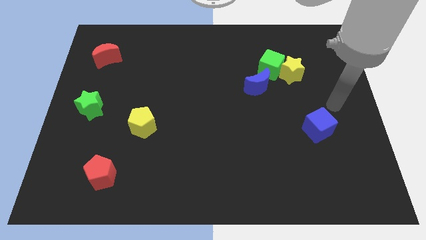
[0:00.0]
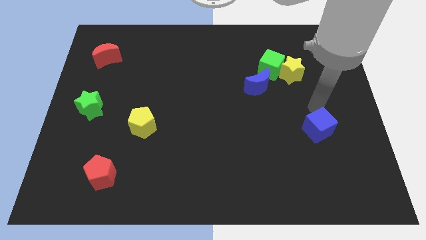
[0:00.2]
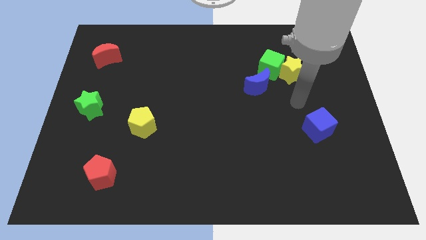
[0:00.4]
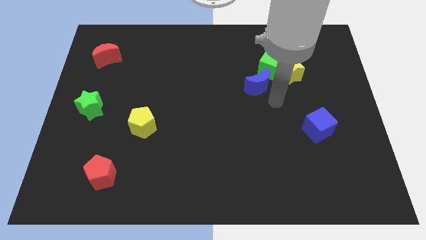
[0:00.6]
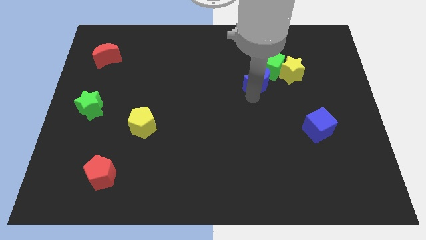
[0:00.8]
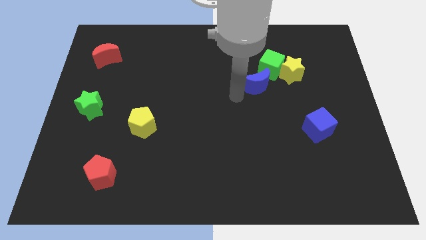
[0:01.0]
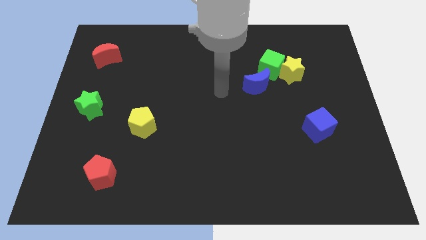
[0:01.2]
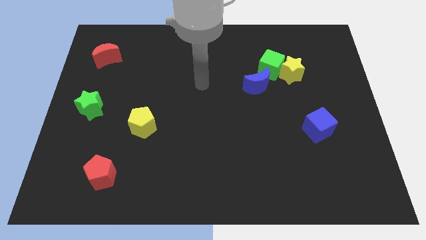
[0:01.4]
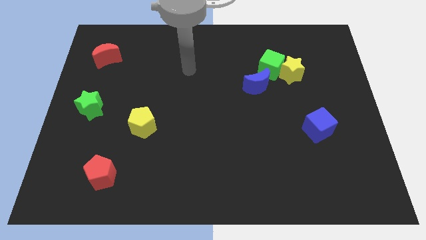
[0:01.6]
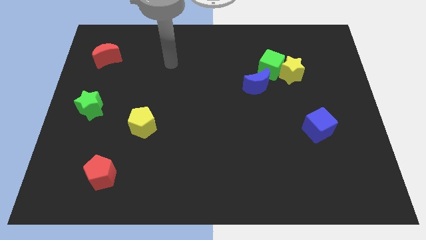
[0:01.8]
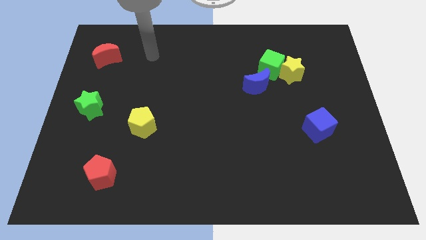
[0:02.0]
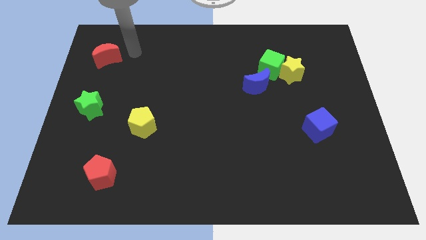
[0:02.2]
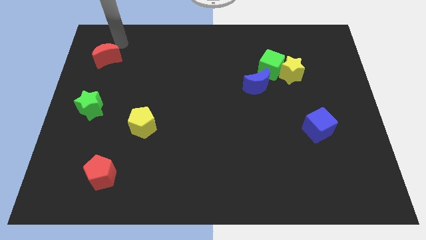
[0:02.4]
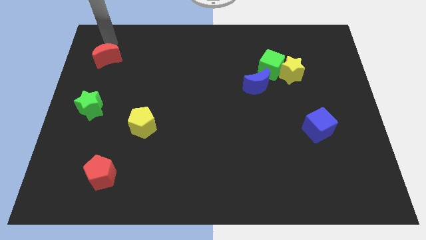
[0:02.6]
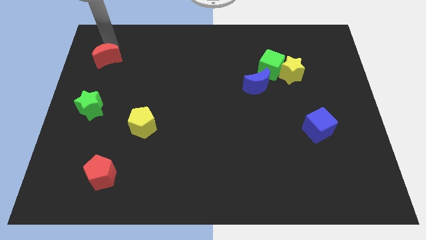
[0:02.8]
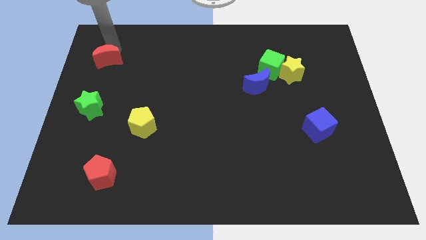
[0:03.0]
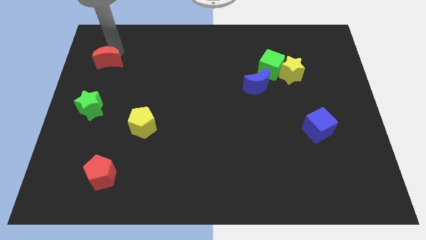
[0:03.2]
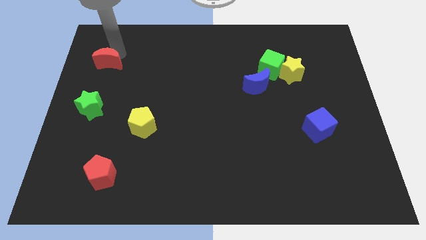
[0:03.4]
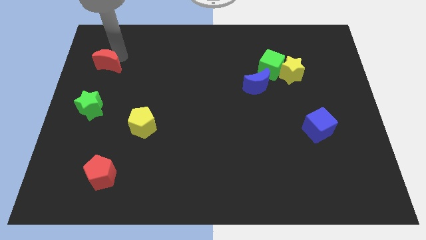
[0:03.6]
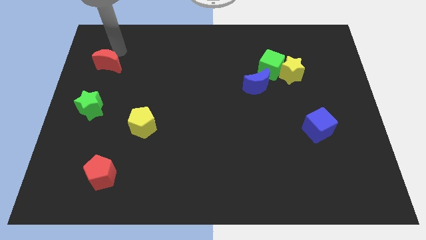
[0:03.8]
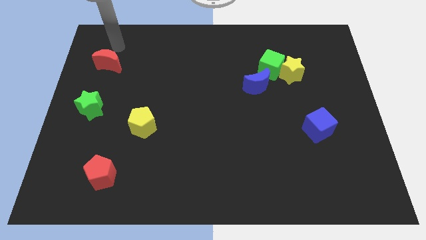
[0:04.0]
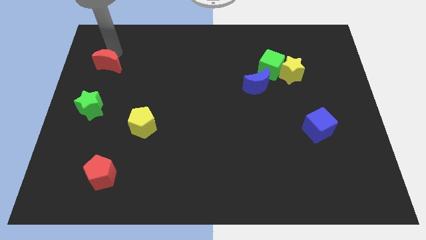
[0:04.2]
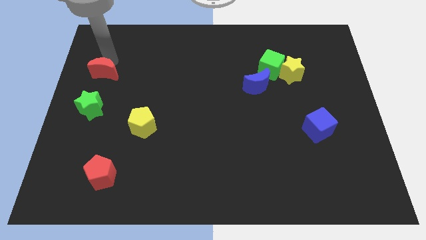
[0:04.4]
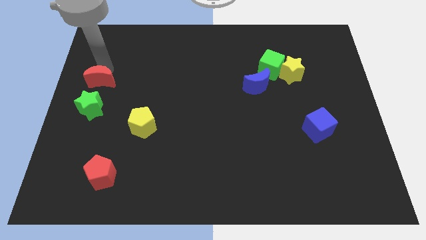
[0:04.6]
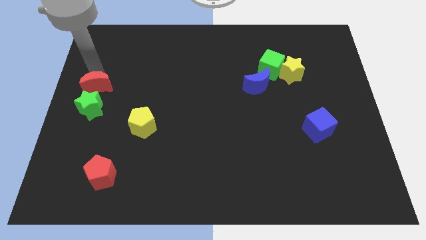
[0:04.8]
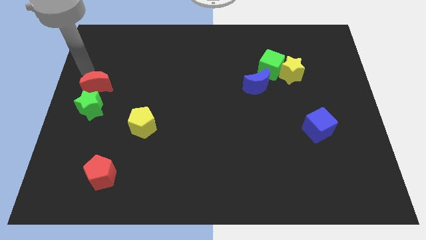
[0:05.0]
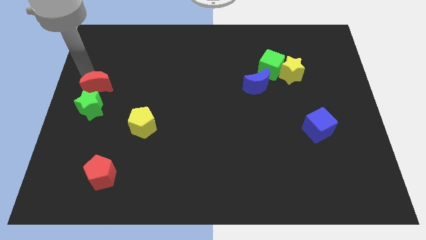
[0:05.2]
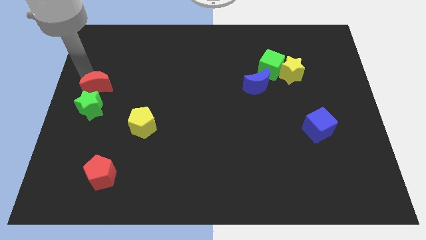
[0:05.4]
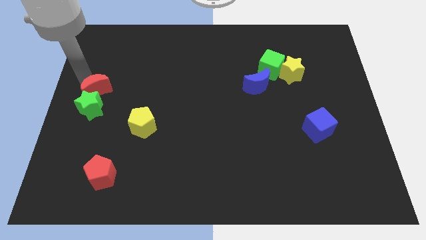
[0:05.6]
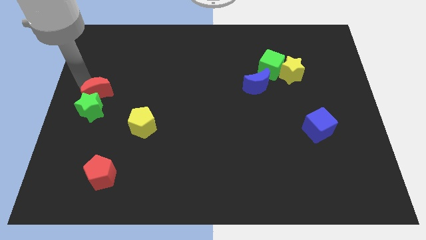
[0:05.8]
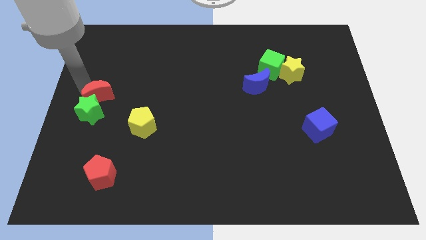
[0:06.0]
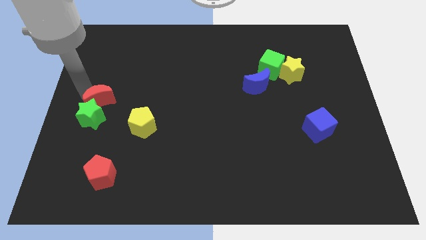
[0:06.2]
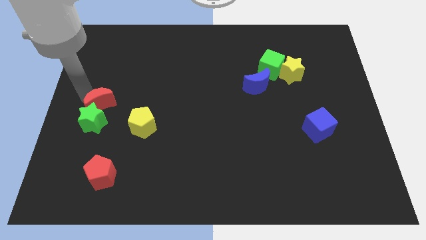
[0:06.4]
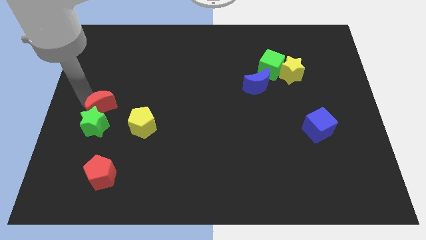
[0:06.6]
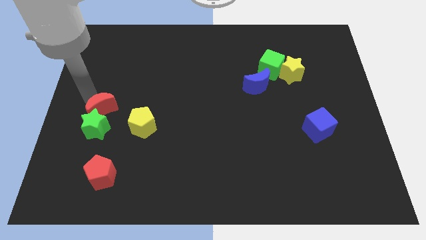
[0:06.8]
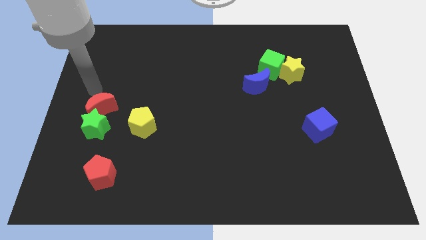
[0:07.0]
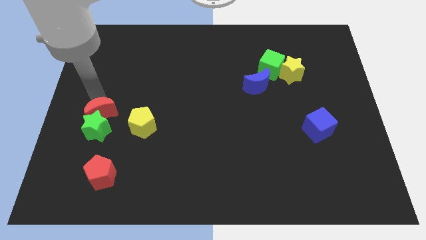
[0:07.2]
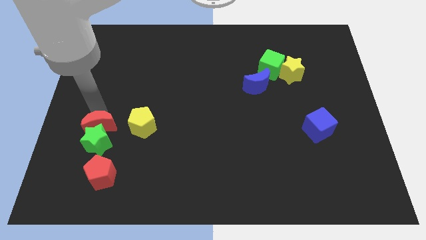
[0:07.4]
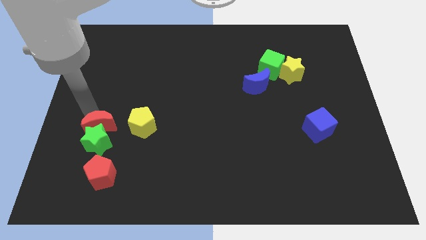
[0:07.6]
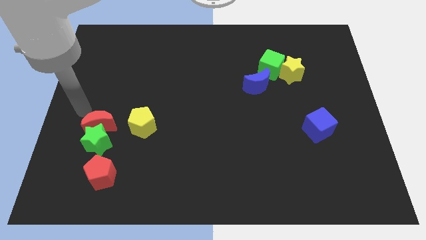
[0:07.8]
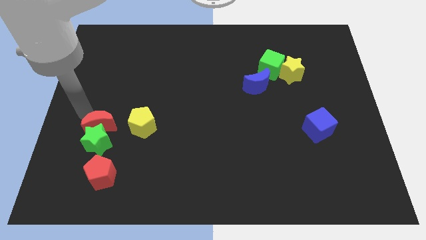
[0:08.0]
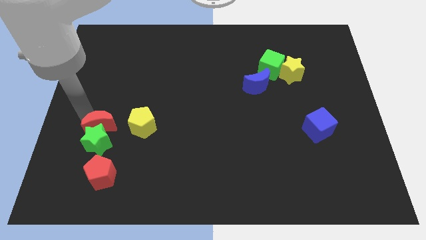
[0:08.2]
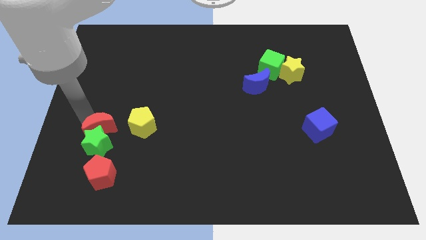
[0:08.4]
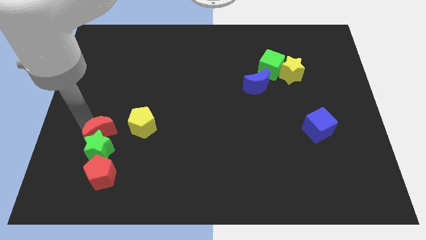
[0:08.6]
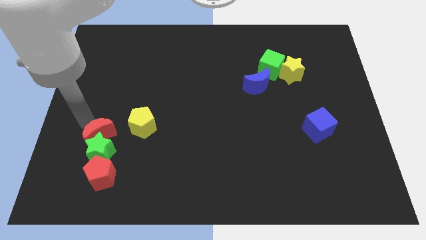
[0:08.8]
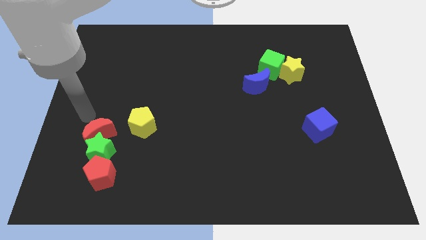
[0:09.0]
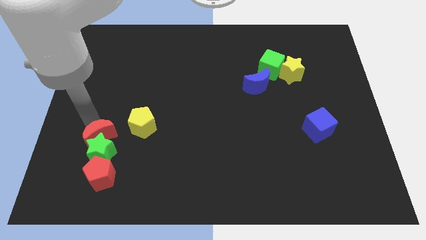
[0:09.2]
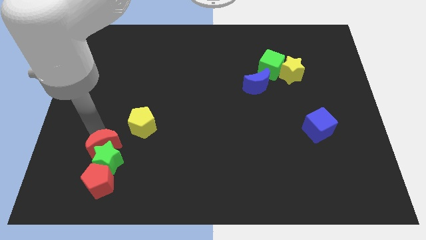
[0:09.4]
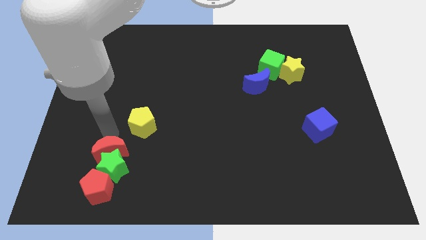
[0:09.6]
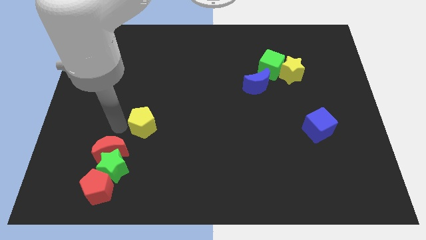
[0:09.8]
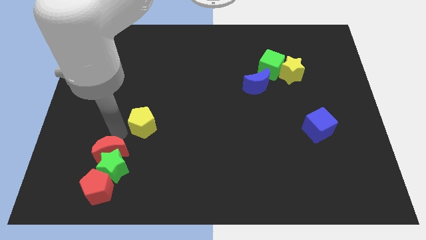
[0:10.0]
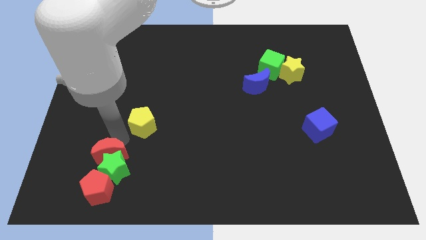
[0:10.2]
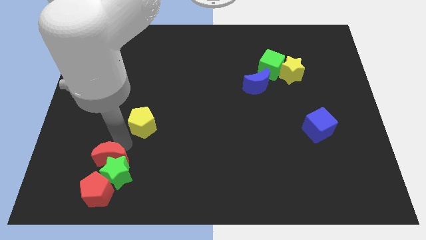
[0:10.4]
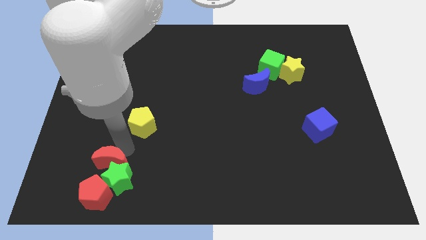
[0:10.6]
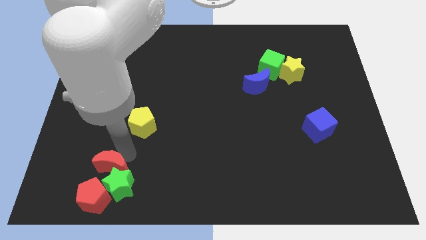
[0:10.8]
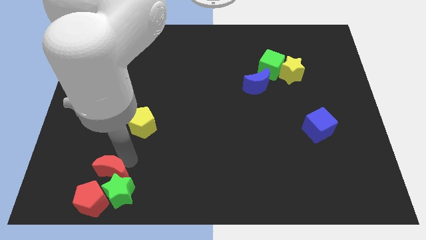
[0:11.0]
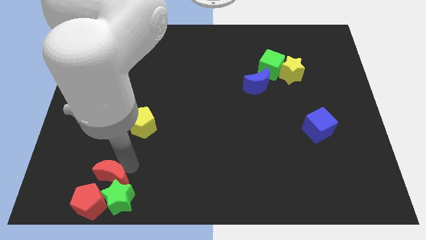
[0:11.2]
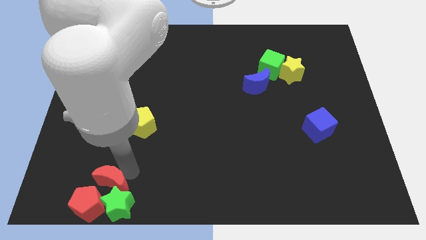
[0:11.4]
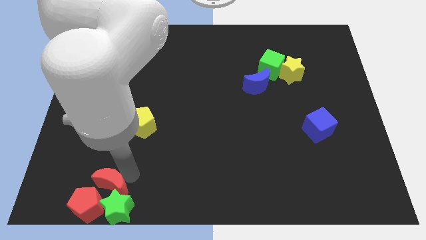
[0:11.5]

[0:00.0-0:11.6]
put the red moon to the red pentagon

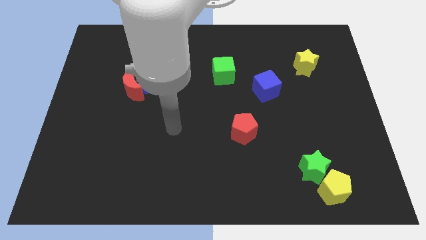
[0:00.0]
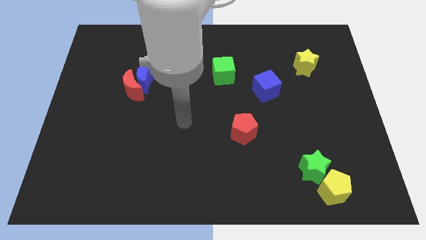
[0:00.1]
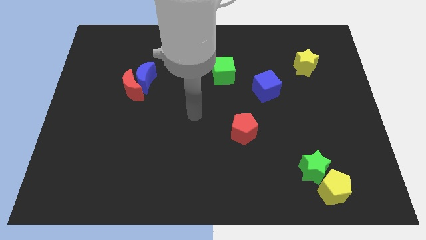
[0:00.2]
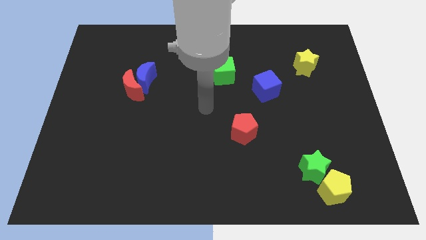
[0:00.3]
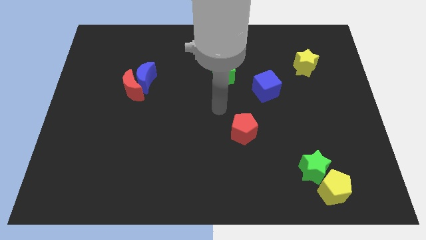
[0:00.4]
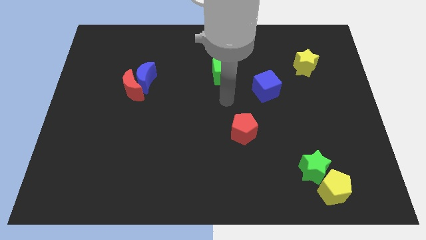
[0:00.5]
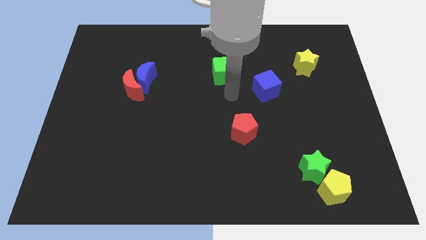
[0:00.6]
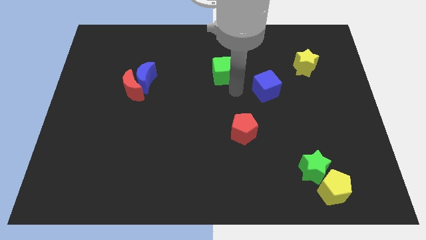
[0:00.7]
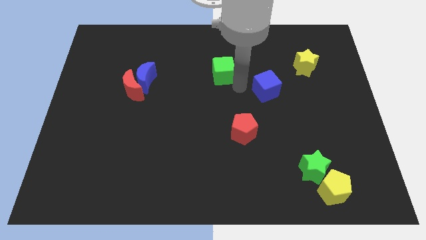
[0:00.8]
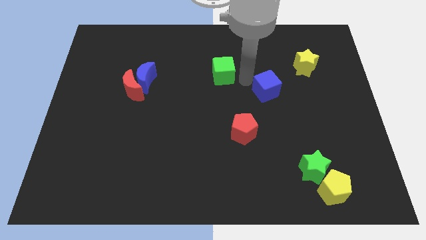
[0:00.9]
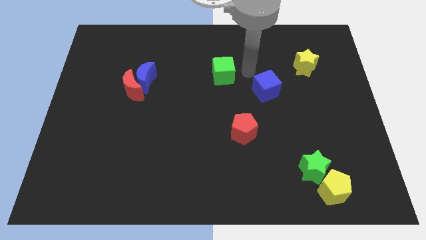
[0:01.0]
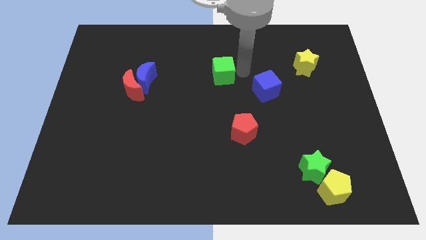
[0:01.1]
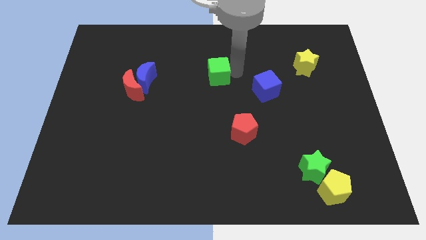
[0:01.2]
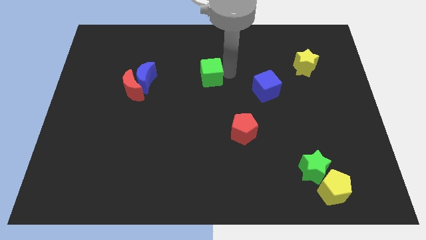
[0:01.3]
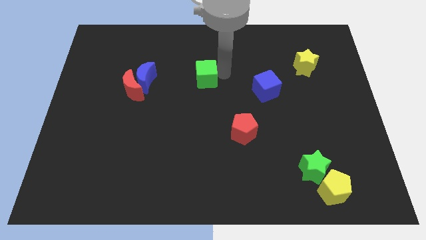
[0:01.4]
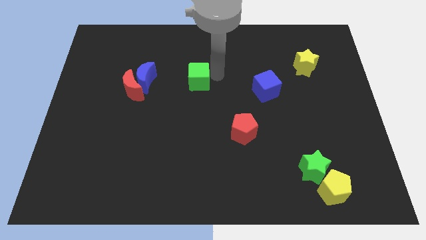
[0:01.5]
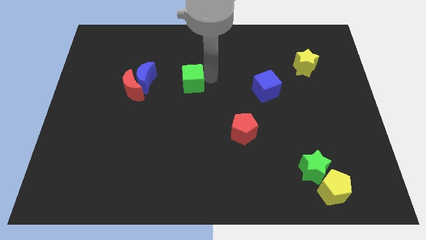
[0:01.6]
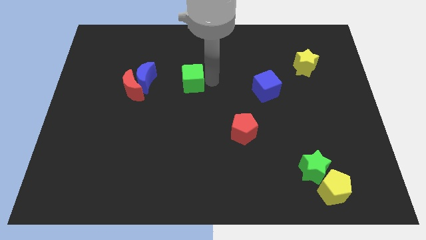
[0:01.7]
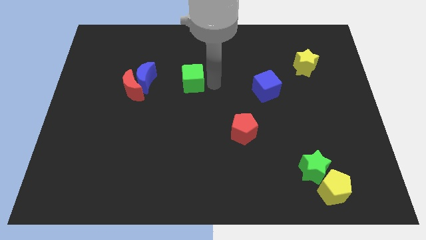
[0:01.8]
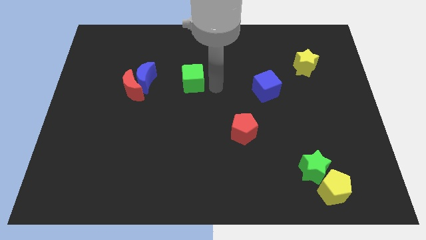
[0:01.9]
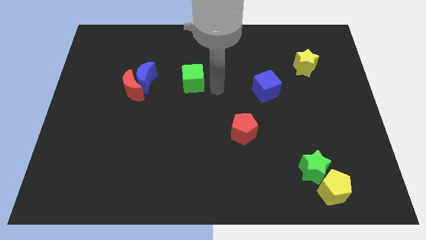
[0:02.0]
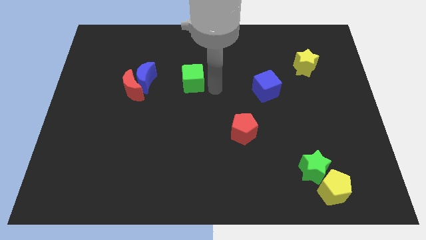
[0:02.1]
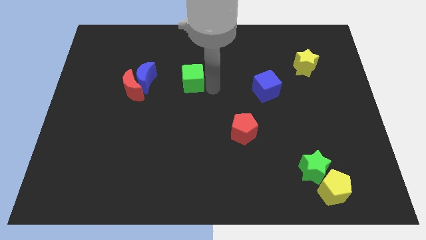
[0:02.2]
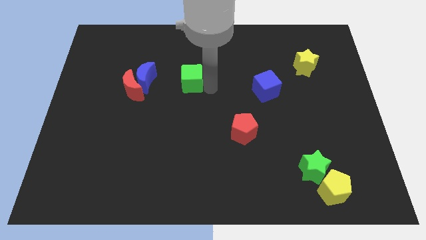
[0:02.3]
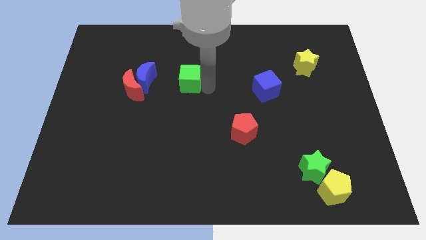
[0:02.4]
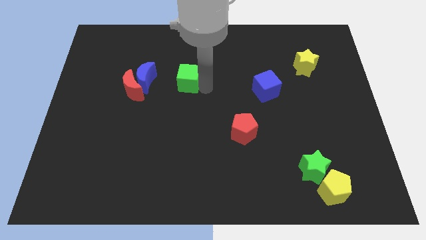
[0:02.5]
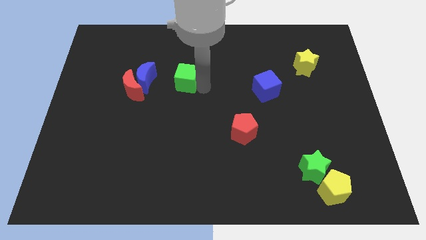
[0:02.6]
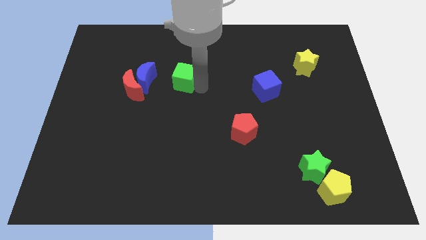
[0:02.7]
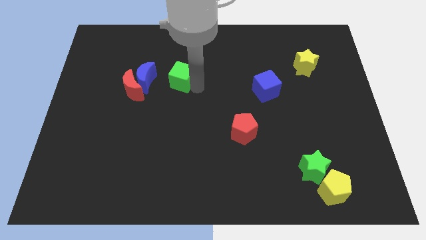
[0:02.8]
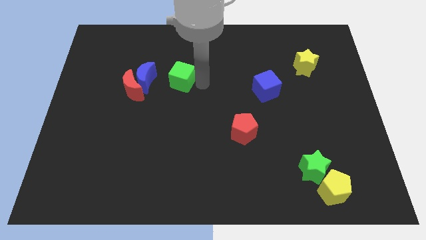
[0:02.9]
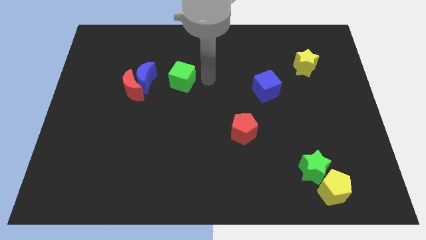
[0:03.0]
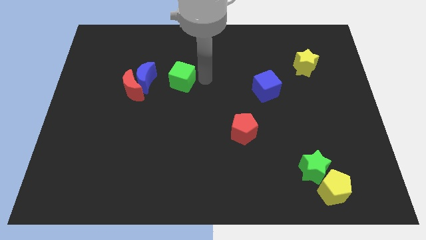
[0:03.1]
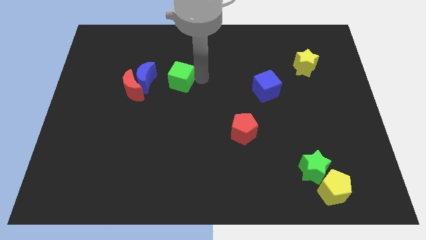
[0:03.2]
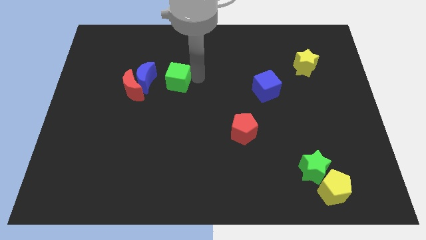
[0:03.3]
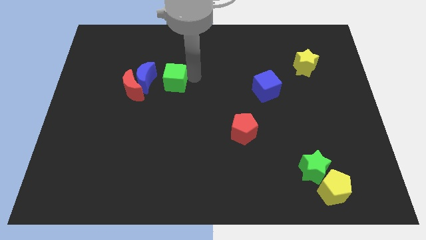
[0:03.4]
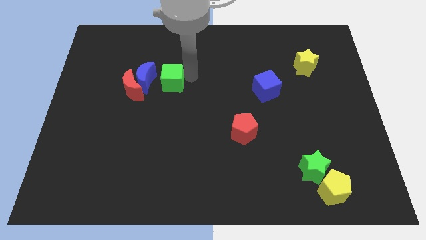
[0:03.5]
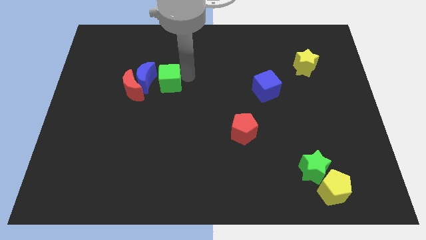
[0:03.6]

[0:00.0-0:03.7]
push the green cube close to the blue moon
